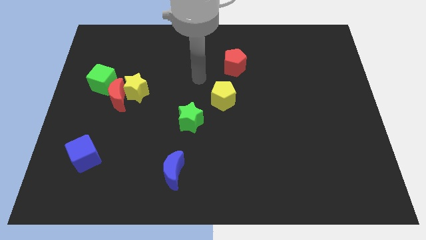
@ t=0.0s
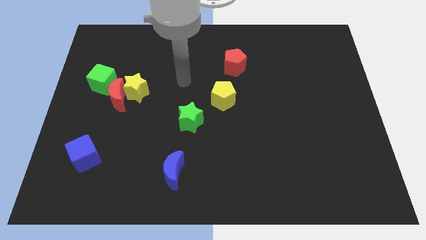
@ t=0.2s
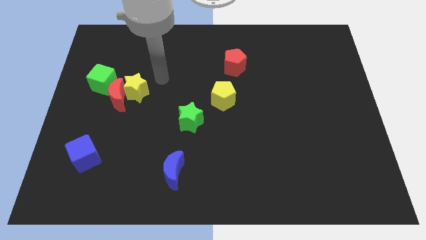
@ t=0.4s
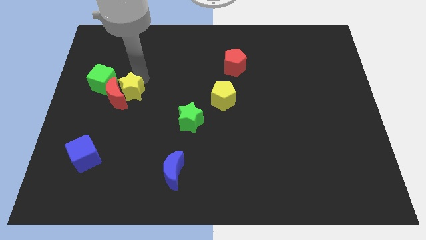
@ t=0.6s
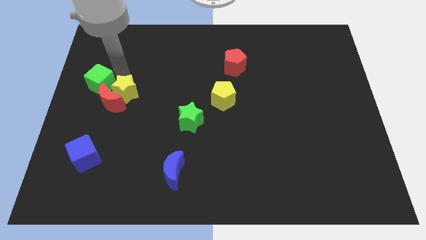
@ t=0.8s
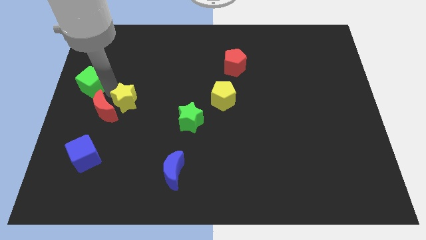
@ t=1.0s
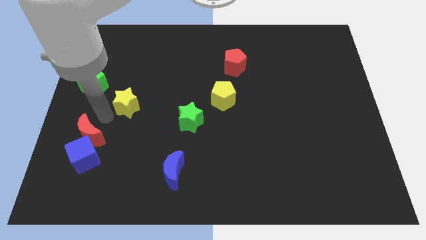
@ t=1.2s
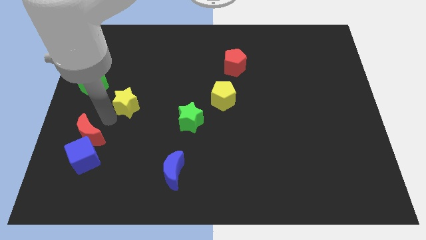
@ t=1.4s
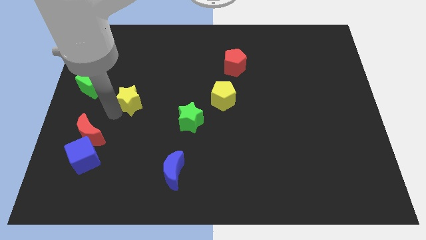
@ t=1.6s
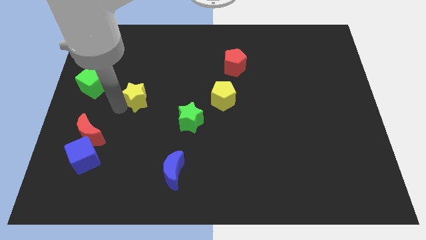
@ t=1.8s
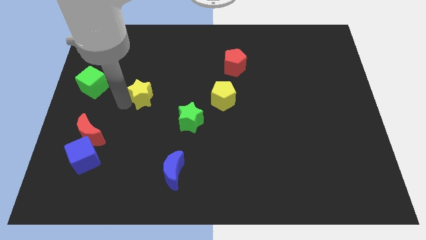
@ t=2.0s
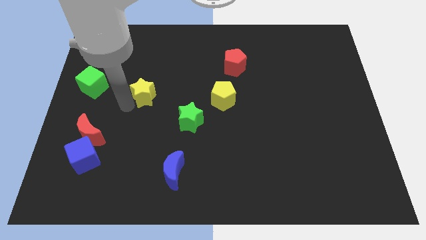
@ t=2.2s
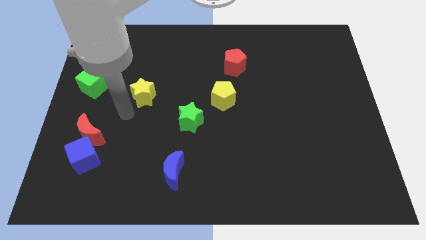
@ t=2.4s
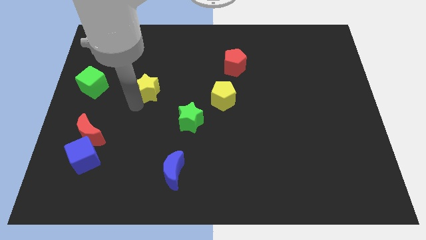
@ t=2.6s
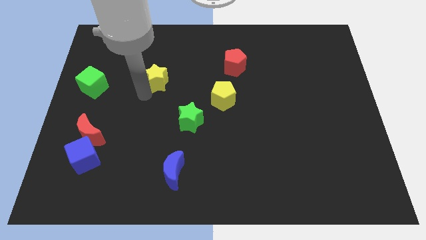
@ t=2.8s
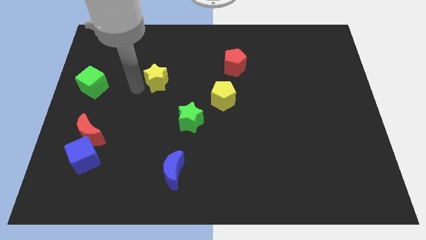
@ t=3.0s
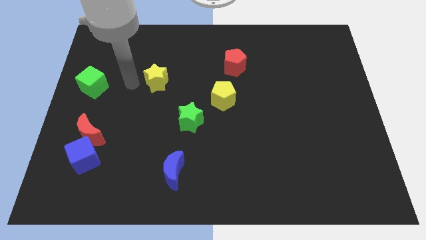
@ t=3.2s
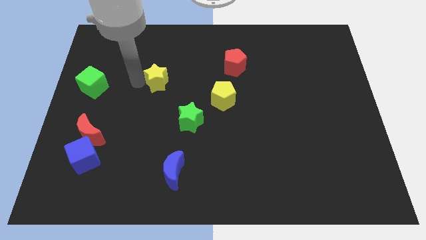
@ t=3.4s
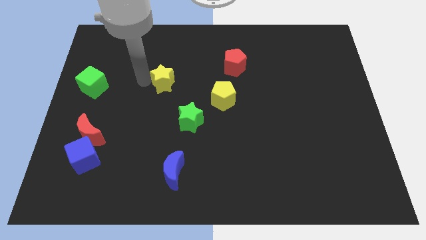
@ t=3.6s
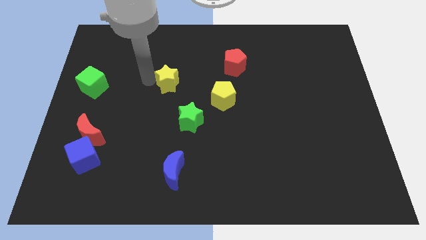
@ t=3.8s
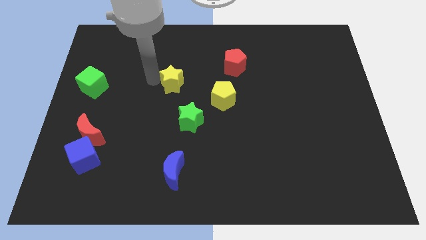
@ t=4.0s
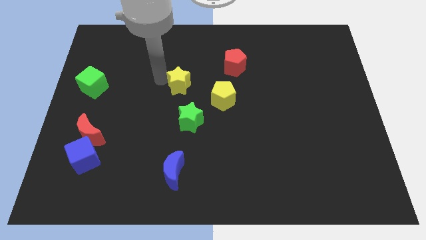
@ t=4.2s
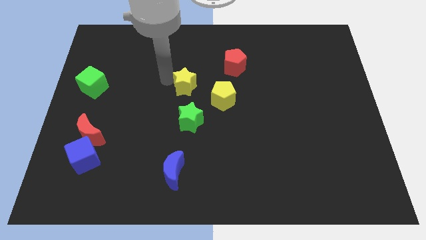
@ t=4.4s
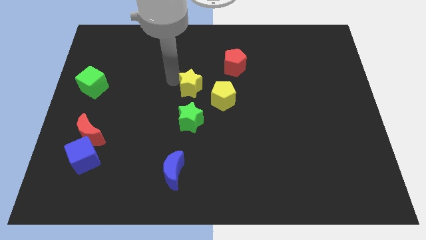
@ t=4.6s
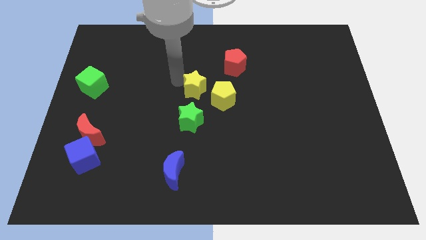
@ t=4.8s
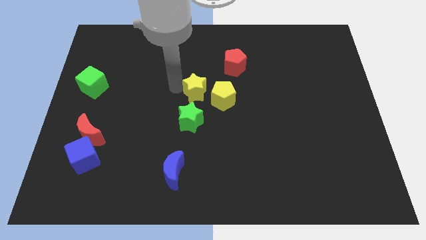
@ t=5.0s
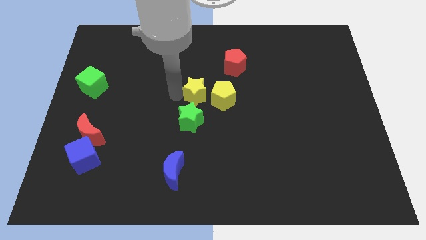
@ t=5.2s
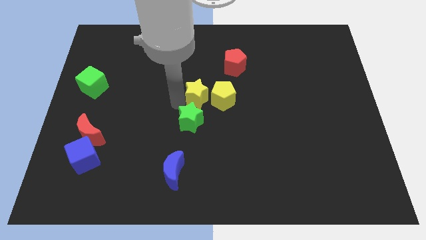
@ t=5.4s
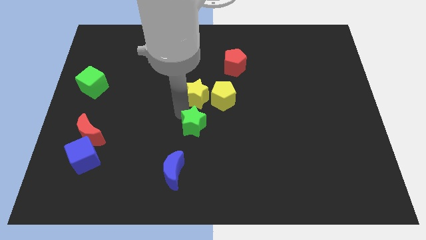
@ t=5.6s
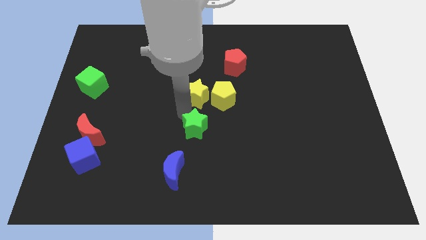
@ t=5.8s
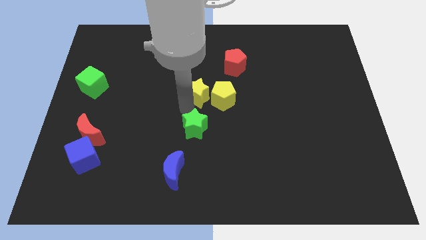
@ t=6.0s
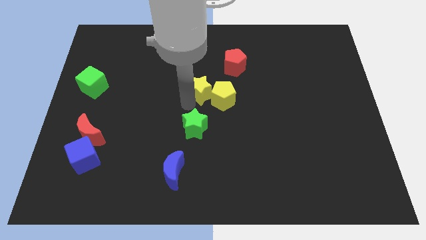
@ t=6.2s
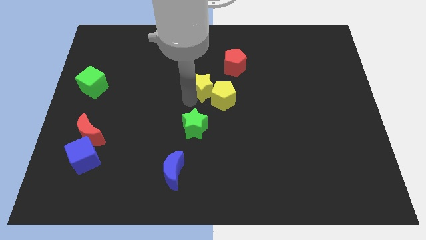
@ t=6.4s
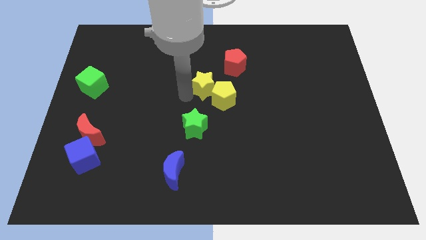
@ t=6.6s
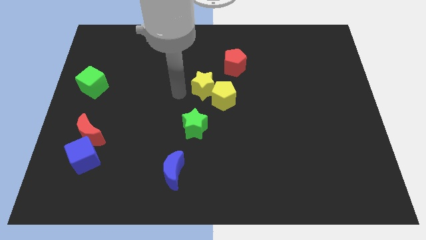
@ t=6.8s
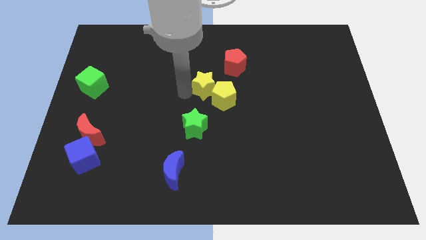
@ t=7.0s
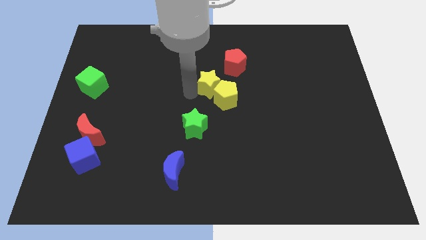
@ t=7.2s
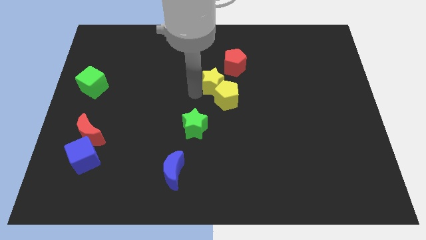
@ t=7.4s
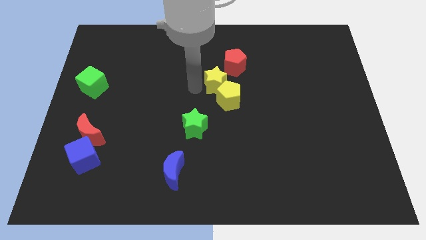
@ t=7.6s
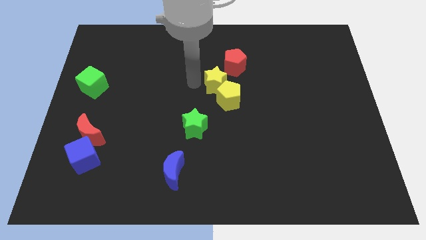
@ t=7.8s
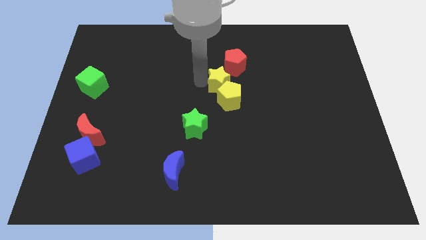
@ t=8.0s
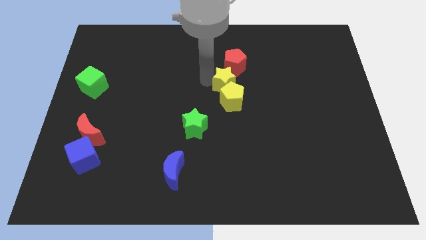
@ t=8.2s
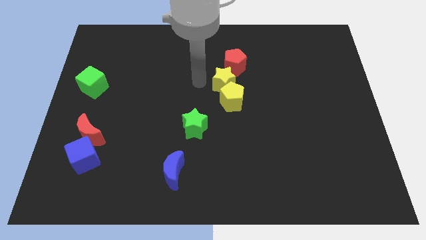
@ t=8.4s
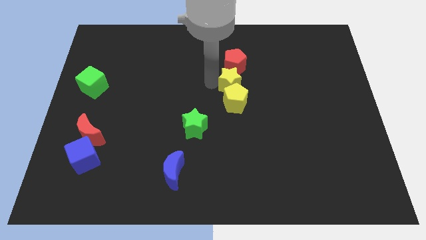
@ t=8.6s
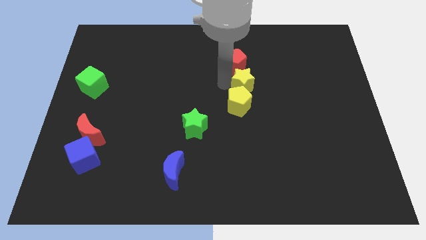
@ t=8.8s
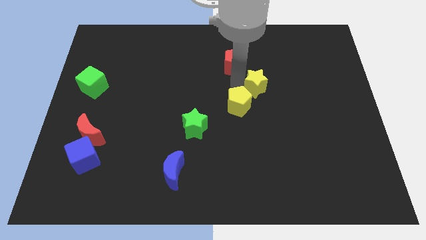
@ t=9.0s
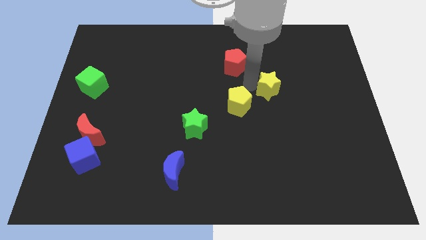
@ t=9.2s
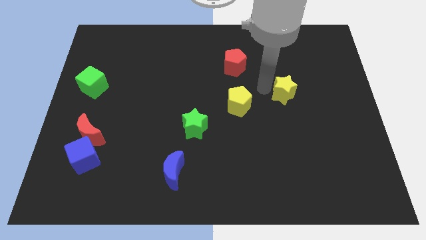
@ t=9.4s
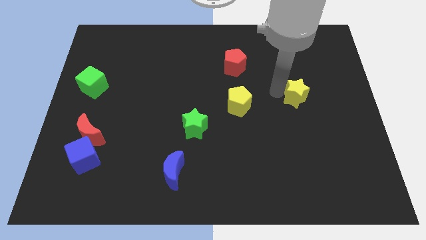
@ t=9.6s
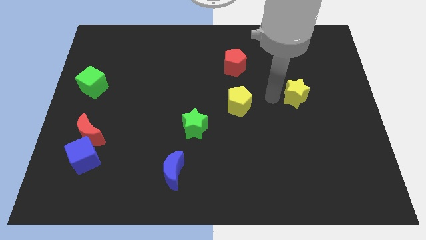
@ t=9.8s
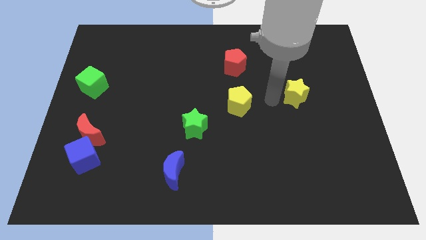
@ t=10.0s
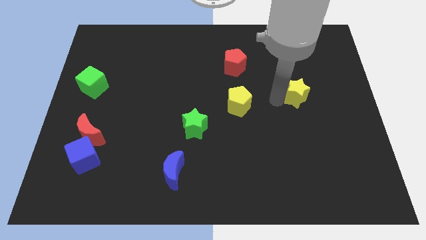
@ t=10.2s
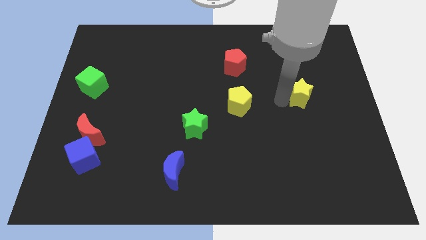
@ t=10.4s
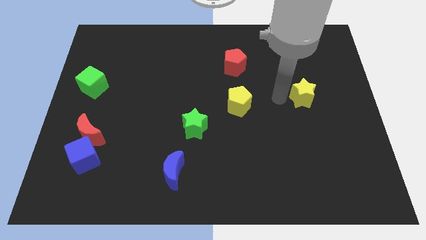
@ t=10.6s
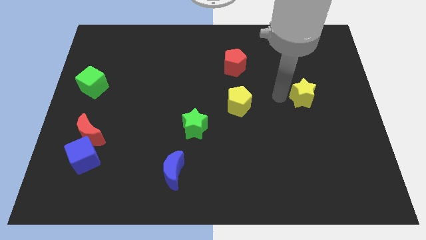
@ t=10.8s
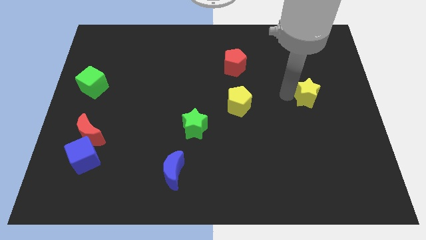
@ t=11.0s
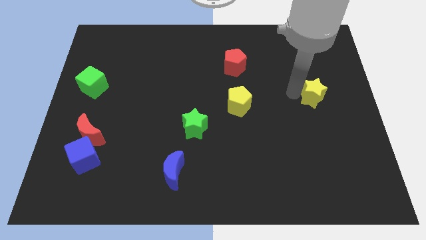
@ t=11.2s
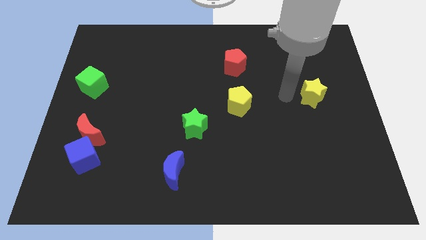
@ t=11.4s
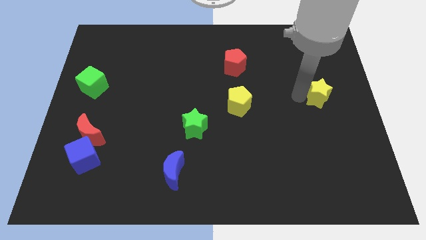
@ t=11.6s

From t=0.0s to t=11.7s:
move the yellow star to the right side of the board

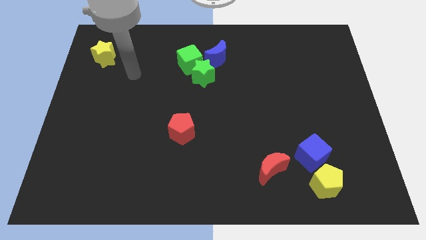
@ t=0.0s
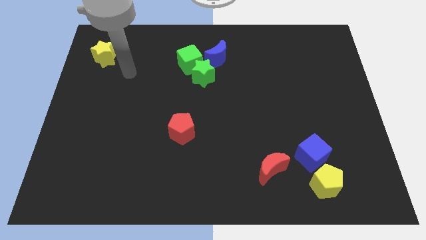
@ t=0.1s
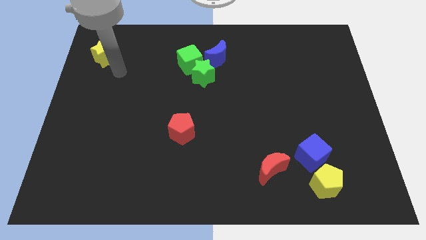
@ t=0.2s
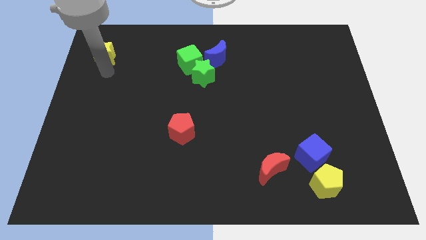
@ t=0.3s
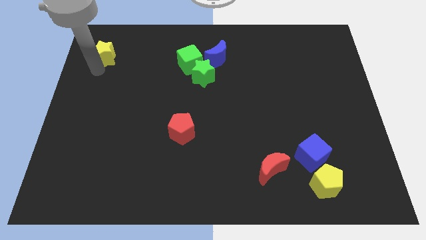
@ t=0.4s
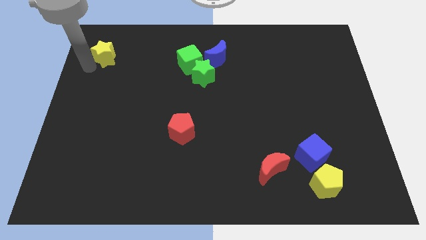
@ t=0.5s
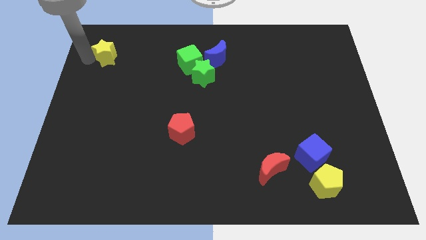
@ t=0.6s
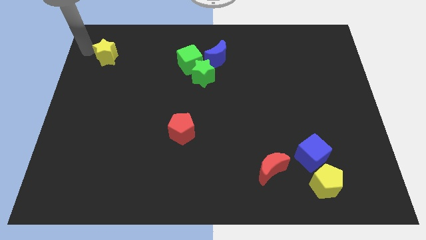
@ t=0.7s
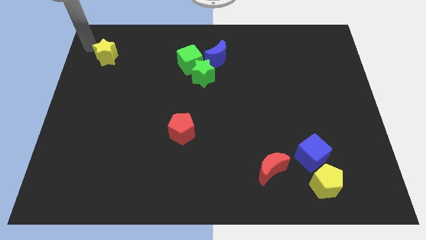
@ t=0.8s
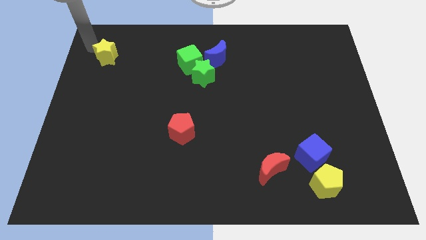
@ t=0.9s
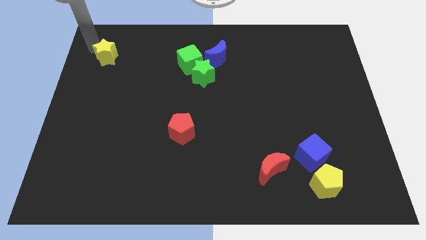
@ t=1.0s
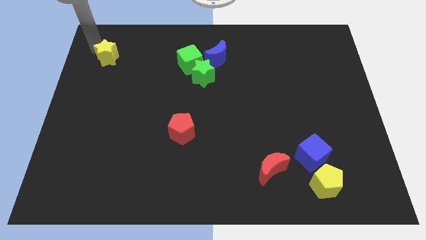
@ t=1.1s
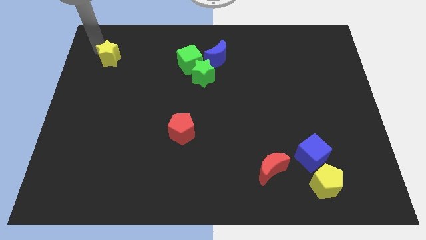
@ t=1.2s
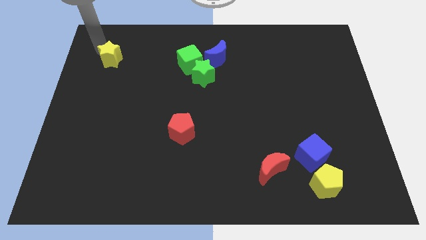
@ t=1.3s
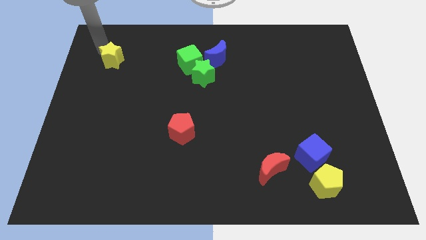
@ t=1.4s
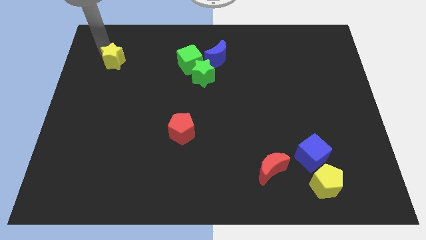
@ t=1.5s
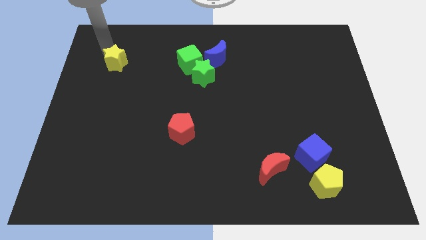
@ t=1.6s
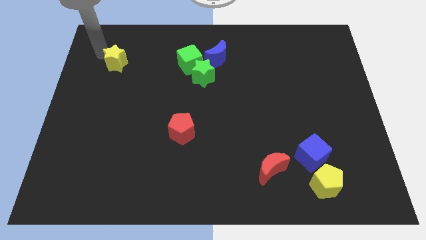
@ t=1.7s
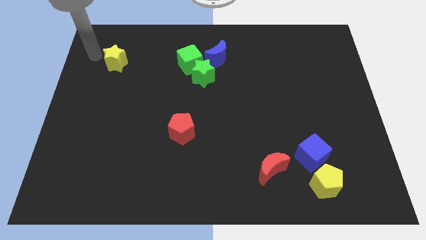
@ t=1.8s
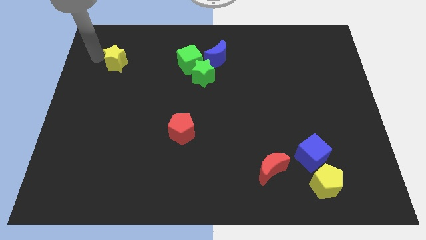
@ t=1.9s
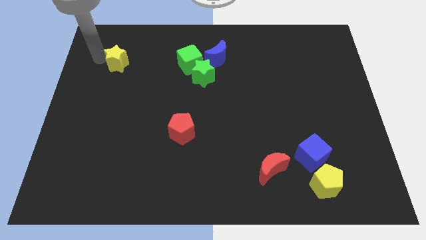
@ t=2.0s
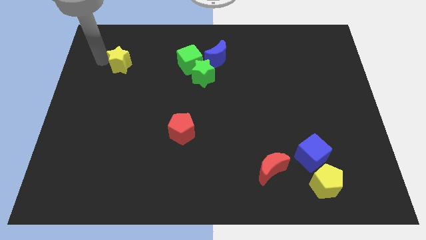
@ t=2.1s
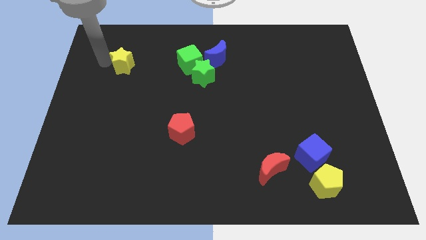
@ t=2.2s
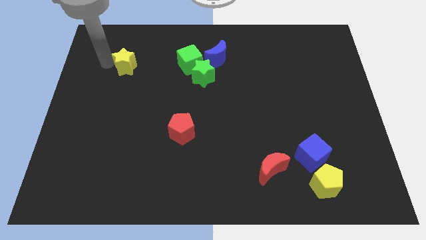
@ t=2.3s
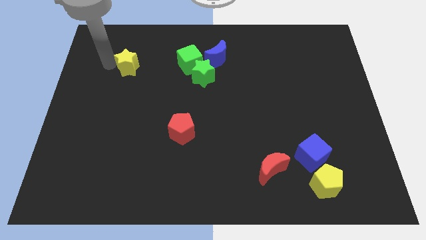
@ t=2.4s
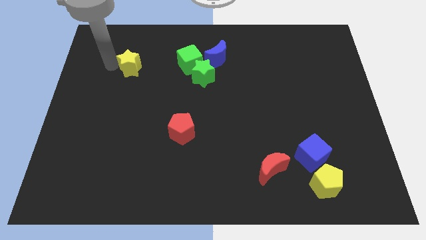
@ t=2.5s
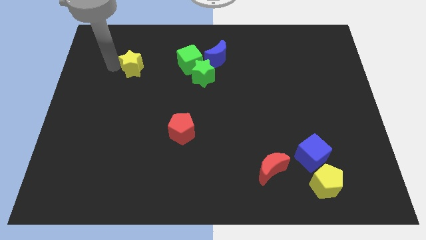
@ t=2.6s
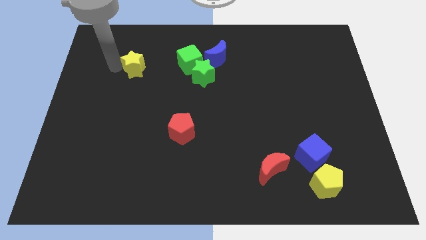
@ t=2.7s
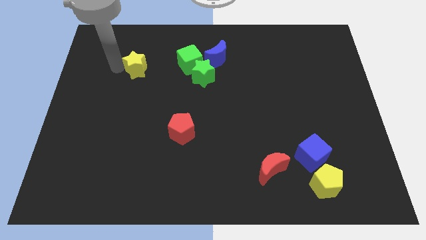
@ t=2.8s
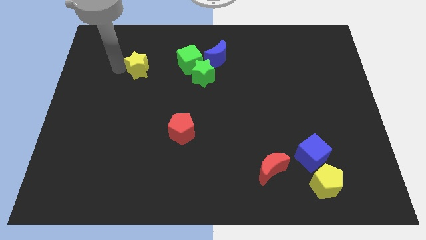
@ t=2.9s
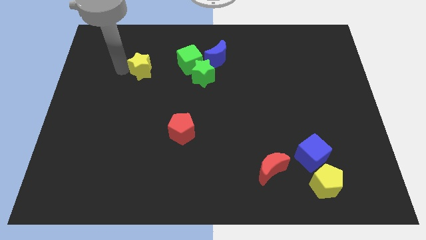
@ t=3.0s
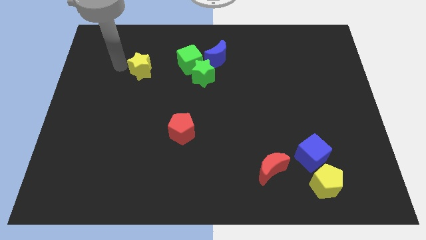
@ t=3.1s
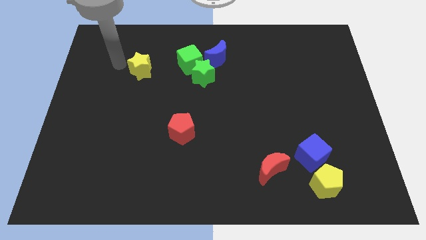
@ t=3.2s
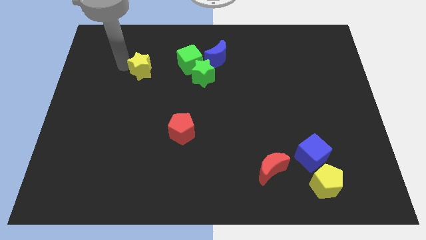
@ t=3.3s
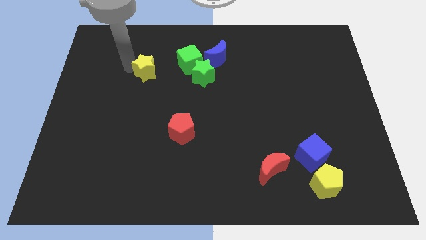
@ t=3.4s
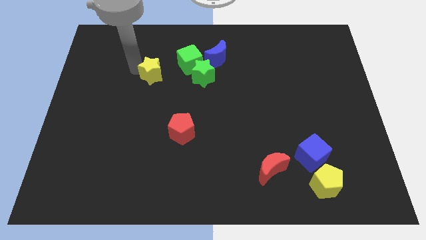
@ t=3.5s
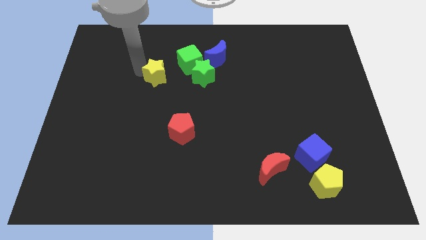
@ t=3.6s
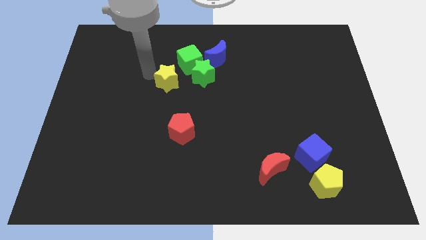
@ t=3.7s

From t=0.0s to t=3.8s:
push the yellow star to the center
